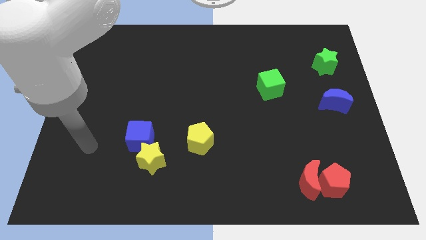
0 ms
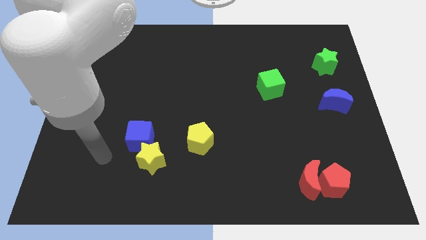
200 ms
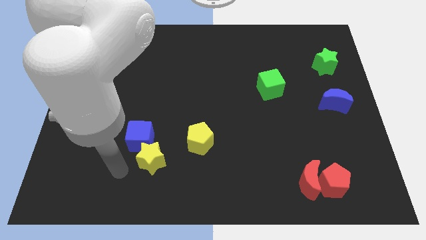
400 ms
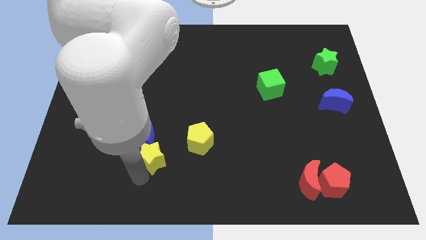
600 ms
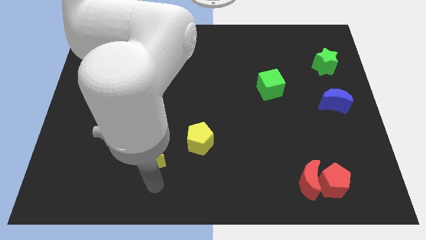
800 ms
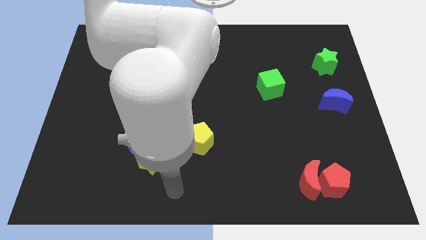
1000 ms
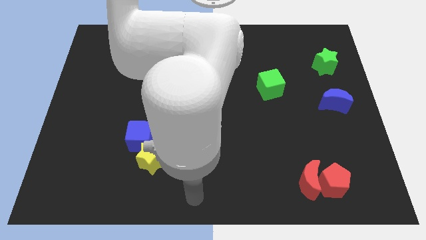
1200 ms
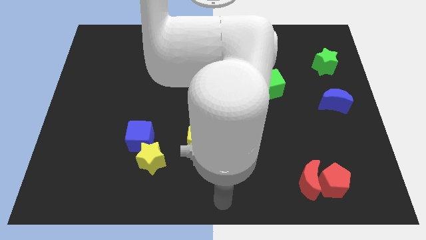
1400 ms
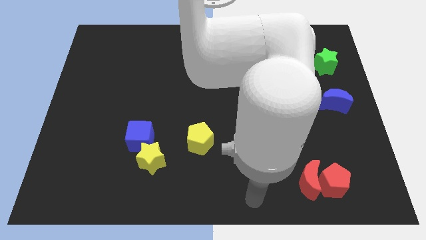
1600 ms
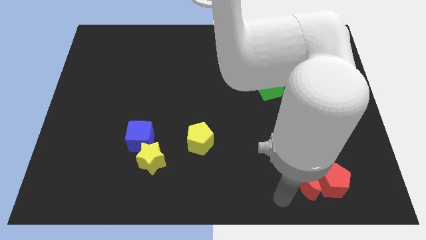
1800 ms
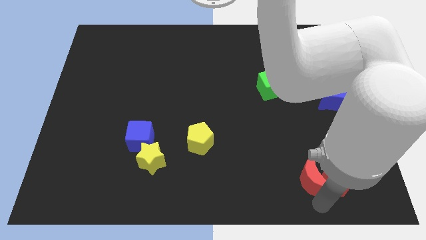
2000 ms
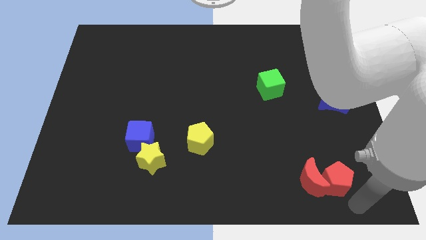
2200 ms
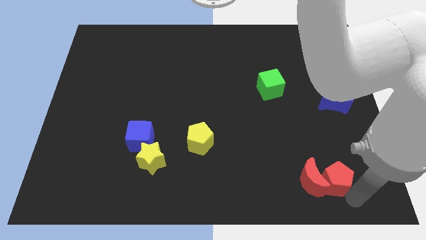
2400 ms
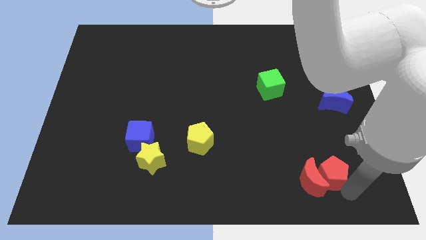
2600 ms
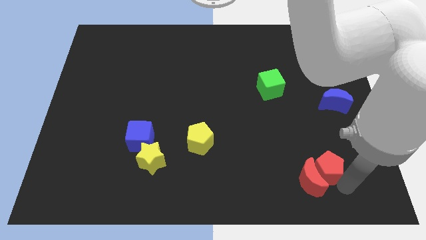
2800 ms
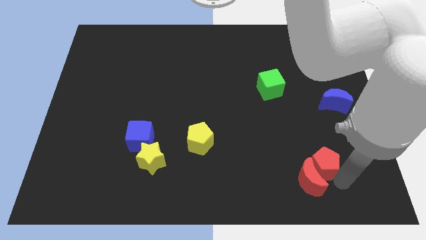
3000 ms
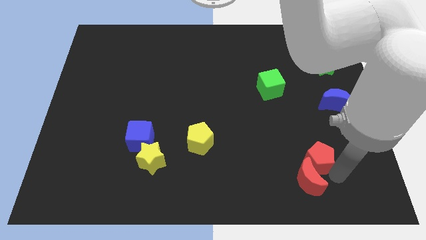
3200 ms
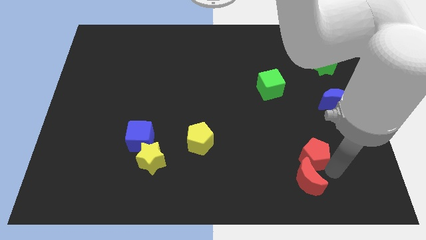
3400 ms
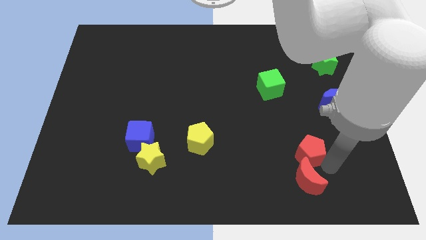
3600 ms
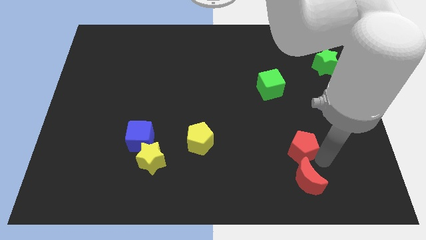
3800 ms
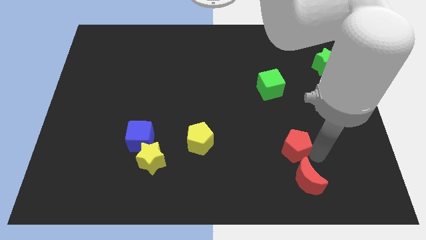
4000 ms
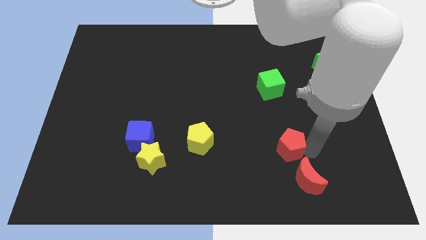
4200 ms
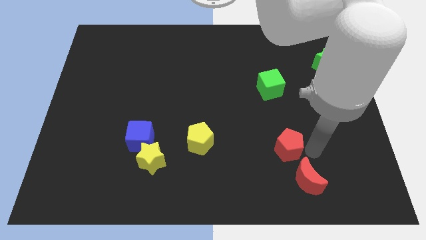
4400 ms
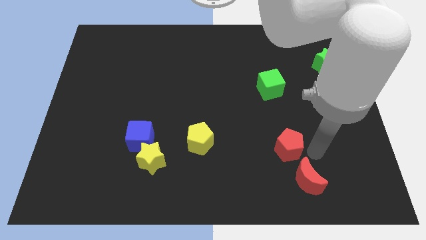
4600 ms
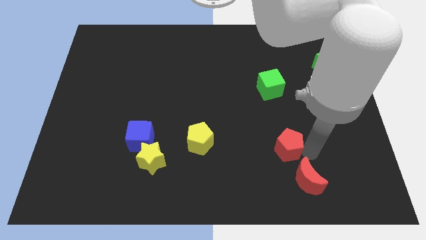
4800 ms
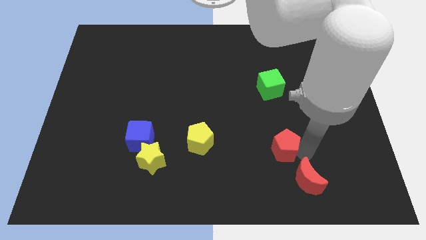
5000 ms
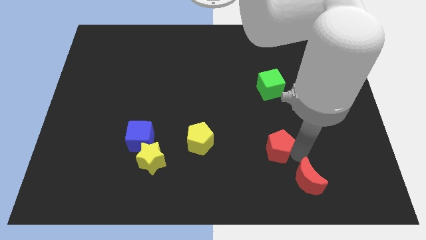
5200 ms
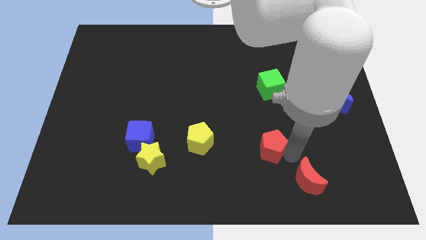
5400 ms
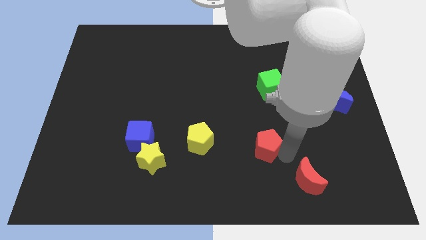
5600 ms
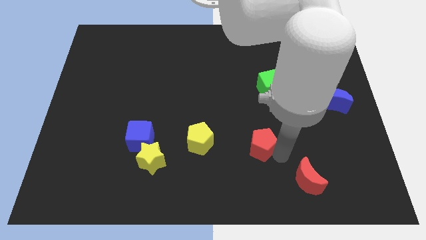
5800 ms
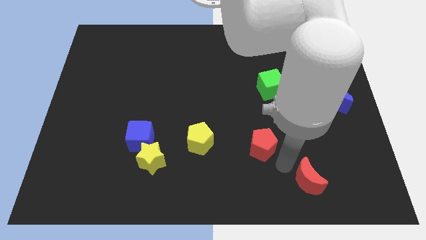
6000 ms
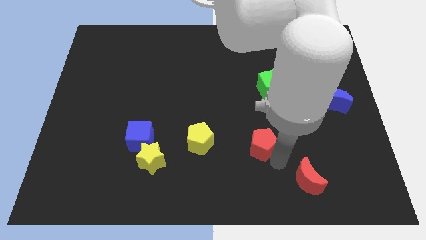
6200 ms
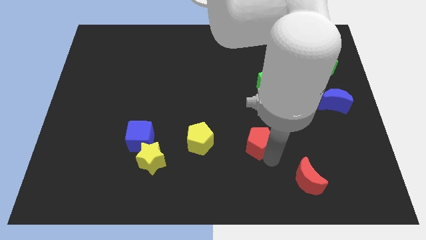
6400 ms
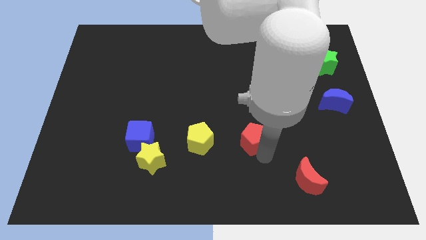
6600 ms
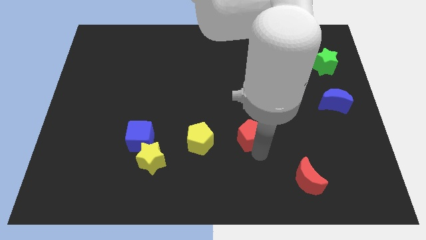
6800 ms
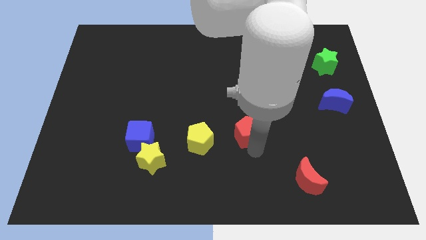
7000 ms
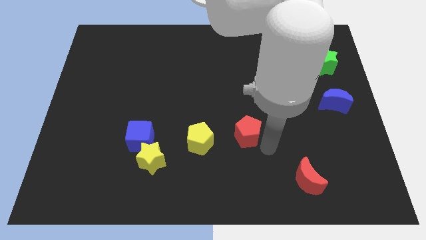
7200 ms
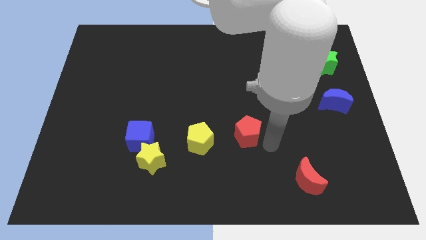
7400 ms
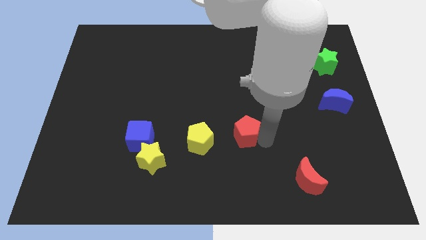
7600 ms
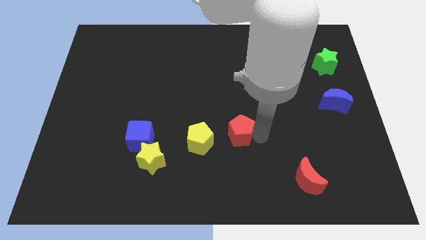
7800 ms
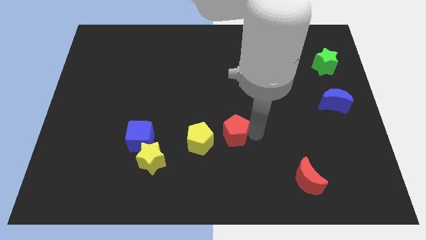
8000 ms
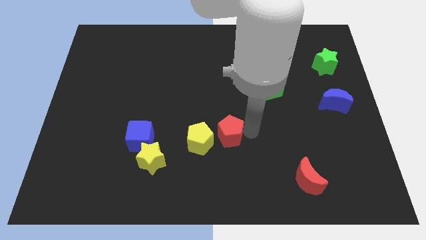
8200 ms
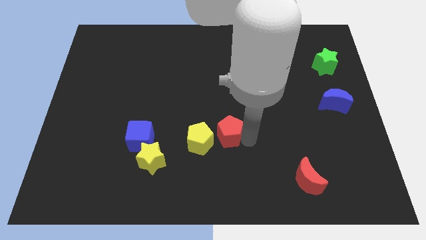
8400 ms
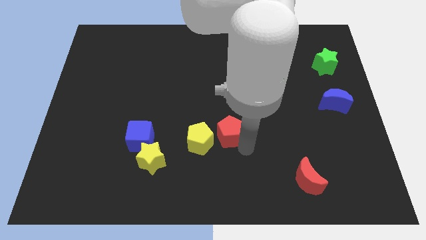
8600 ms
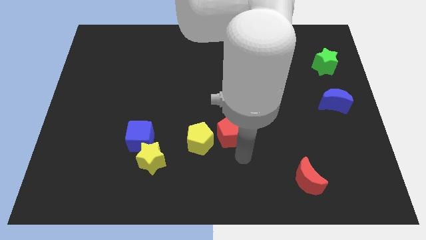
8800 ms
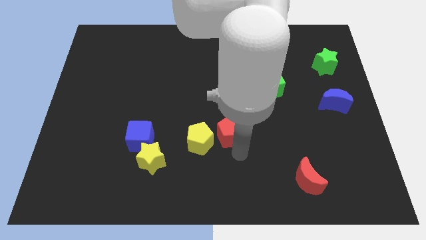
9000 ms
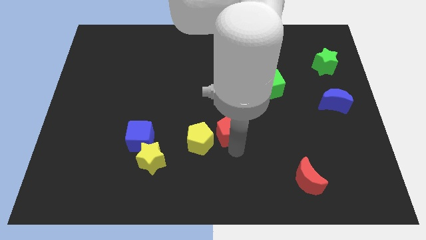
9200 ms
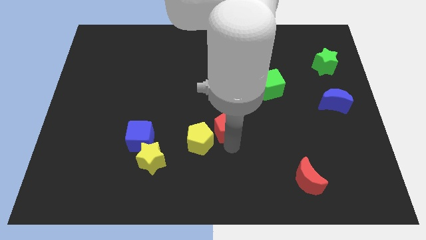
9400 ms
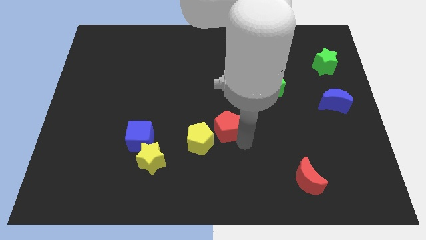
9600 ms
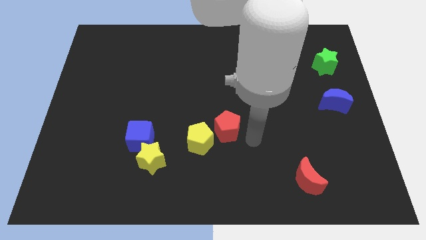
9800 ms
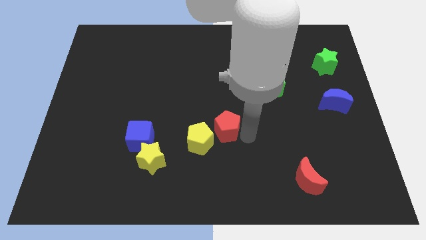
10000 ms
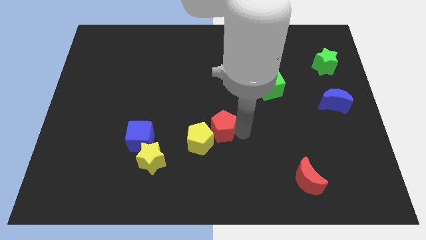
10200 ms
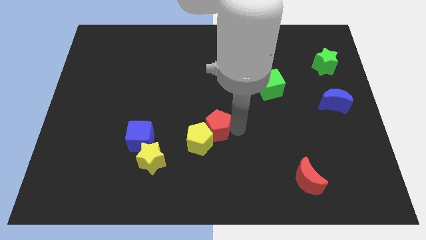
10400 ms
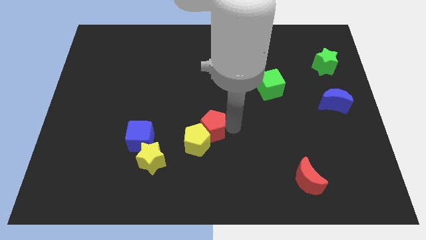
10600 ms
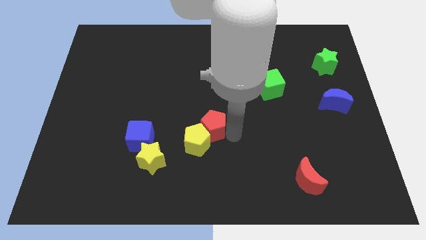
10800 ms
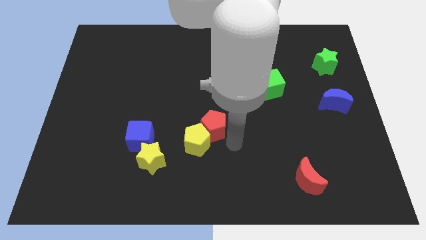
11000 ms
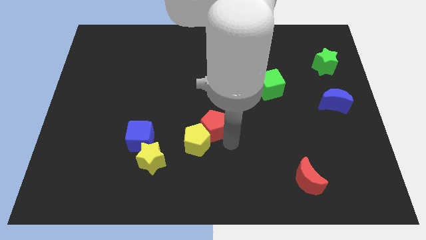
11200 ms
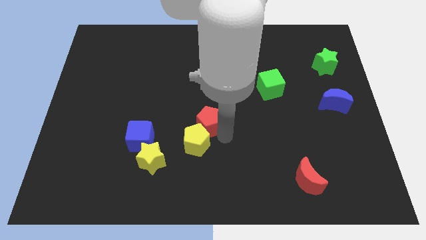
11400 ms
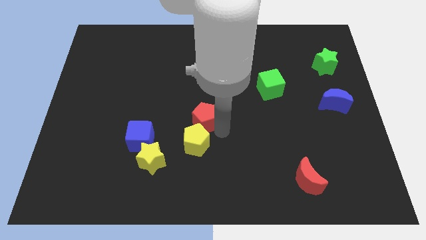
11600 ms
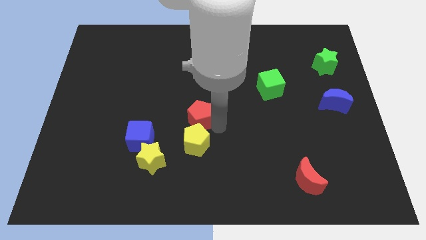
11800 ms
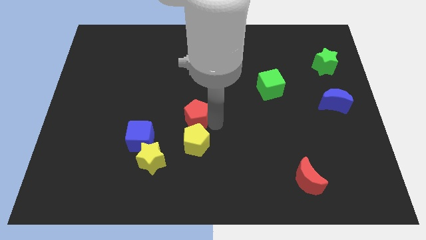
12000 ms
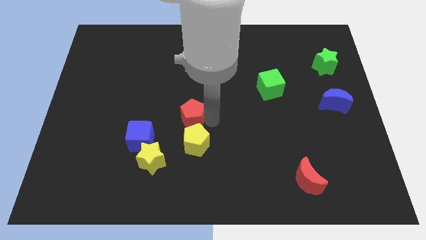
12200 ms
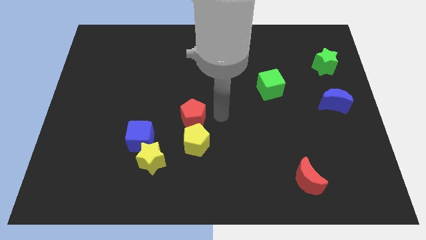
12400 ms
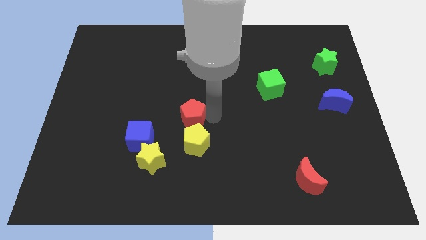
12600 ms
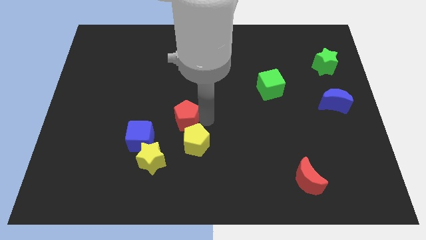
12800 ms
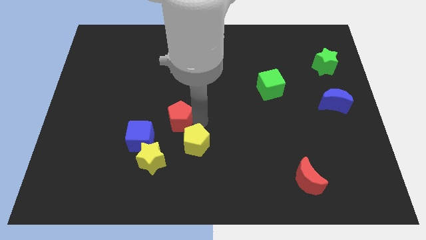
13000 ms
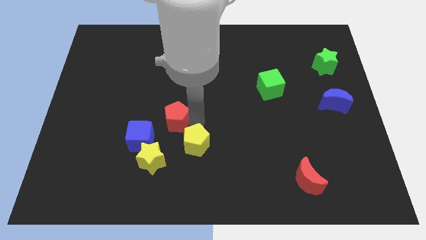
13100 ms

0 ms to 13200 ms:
slide the red pentagon to the top side of the yellow star

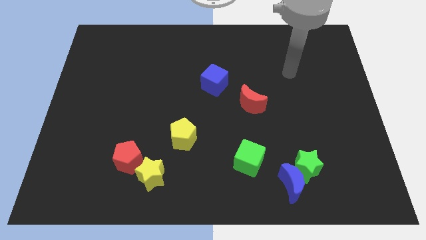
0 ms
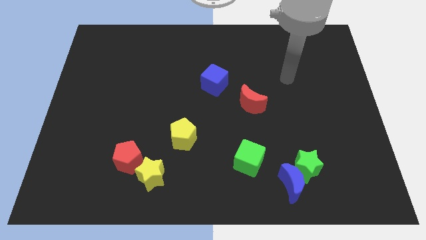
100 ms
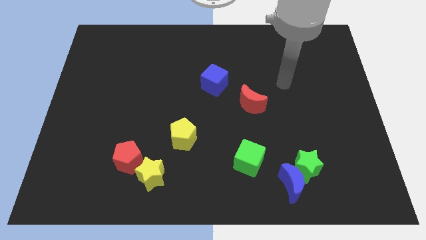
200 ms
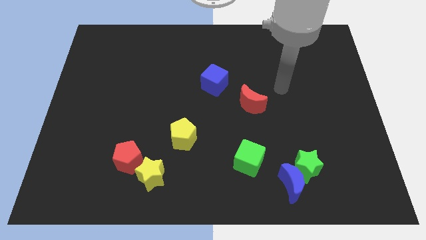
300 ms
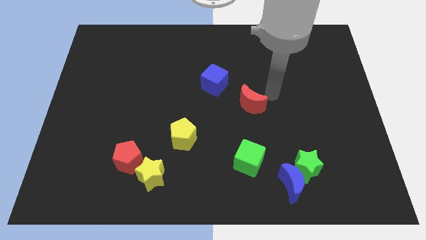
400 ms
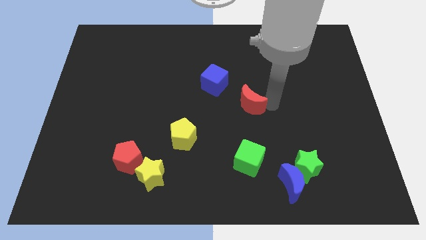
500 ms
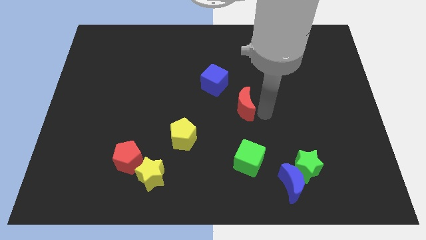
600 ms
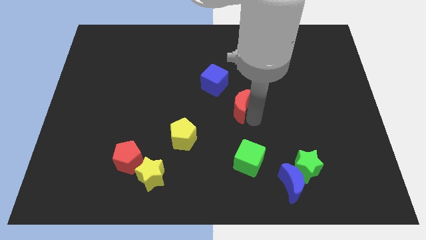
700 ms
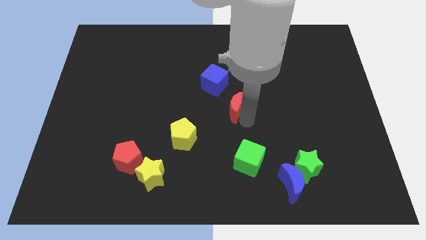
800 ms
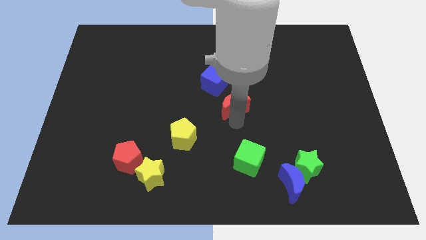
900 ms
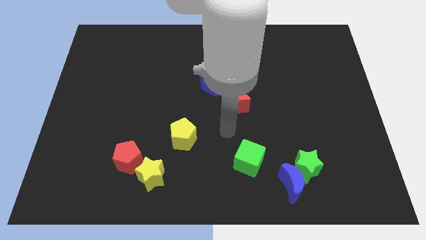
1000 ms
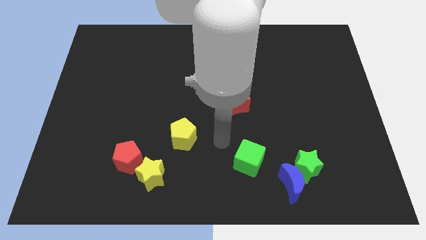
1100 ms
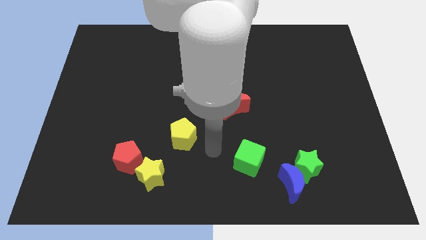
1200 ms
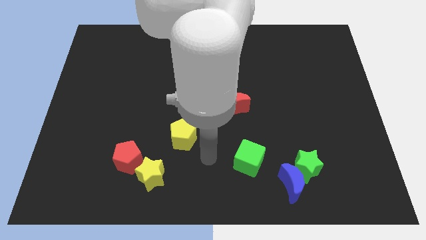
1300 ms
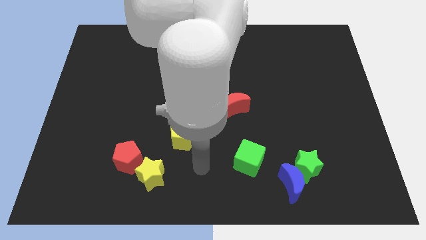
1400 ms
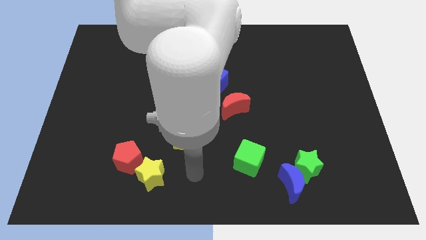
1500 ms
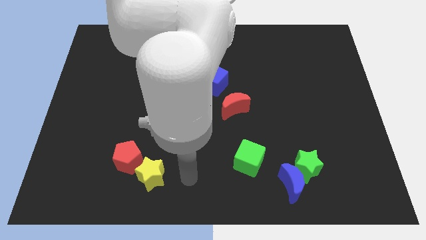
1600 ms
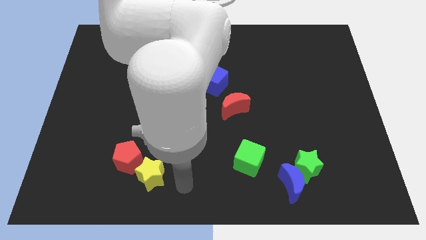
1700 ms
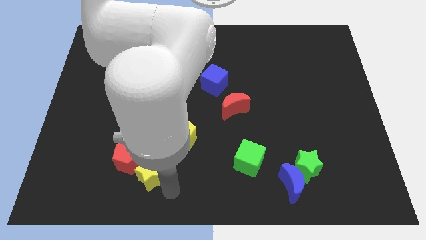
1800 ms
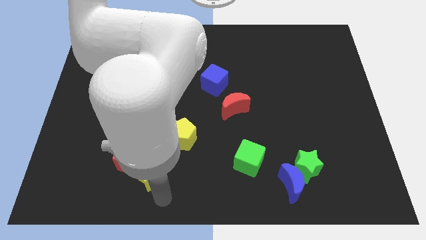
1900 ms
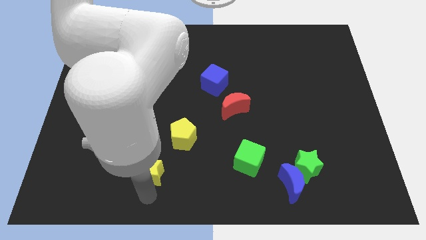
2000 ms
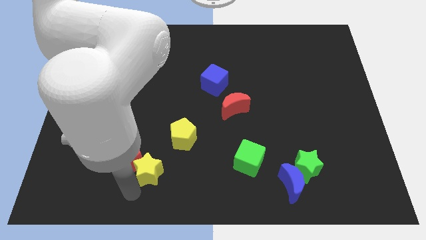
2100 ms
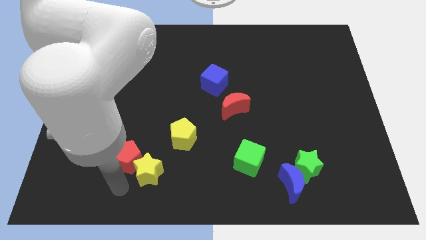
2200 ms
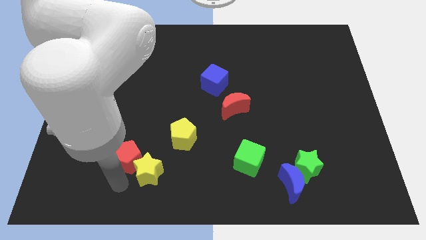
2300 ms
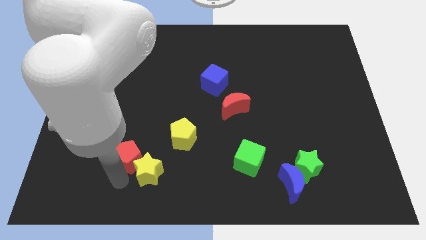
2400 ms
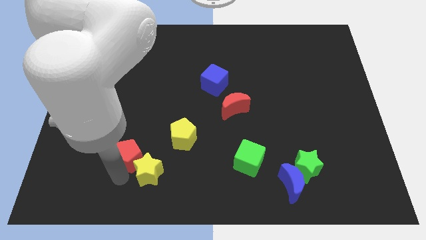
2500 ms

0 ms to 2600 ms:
put the red pentagon just left of the yellow pentagon
